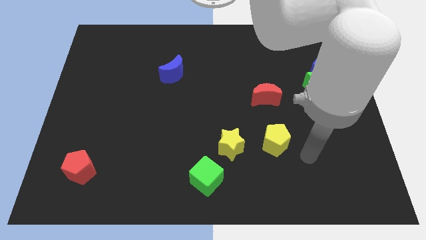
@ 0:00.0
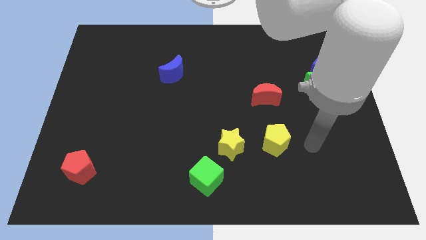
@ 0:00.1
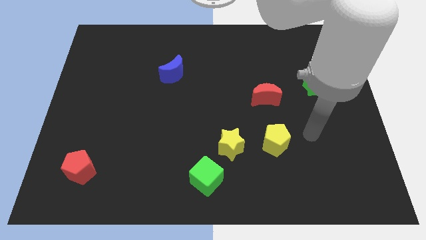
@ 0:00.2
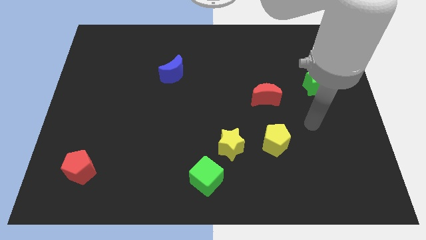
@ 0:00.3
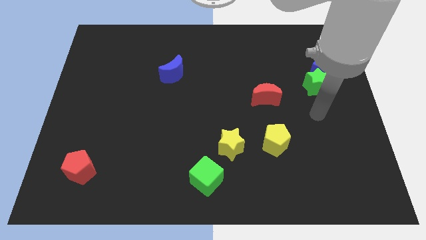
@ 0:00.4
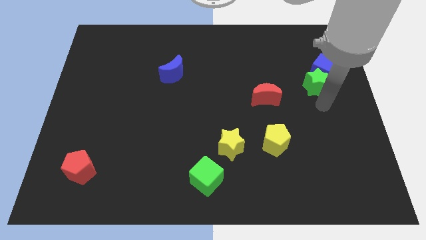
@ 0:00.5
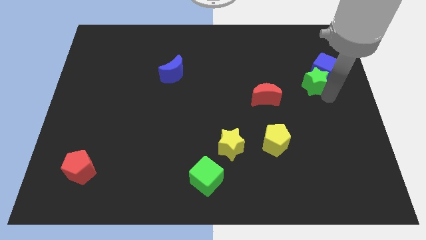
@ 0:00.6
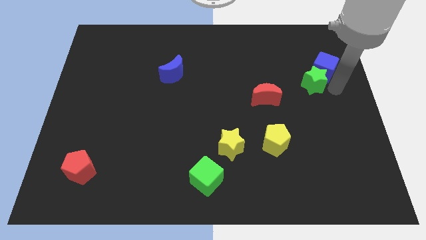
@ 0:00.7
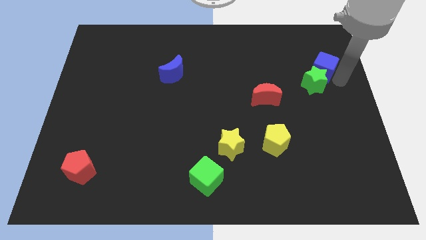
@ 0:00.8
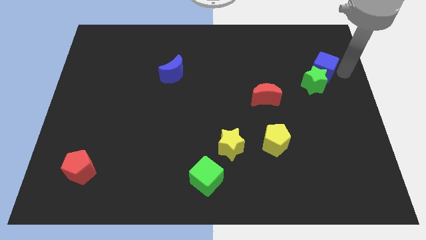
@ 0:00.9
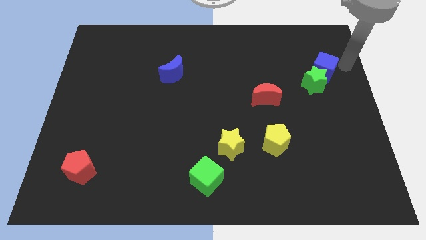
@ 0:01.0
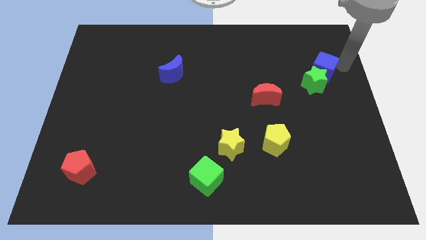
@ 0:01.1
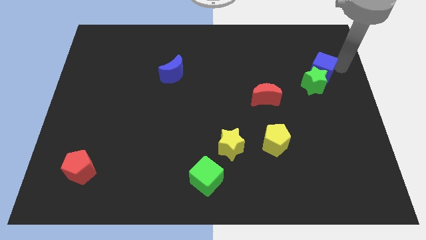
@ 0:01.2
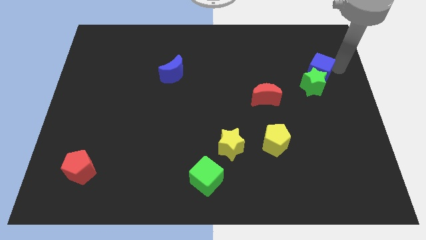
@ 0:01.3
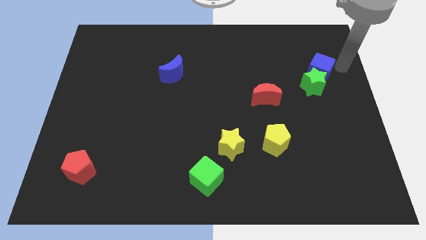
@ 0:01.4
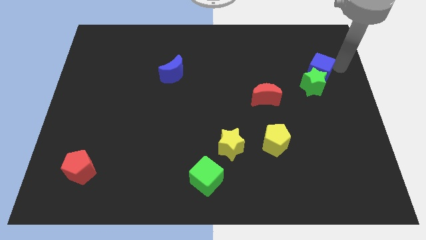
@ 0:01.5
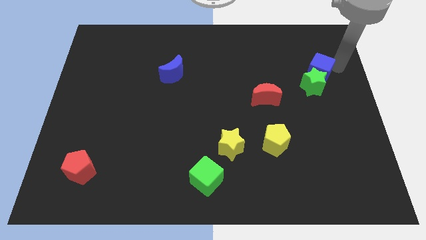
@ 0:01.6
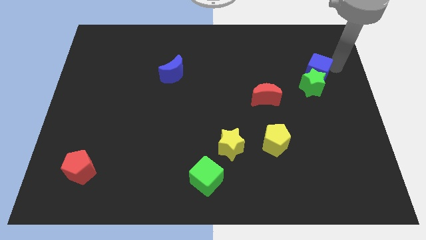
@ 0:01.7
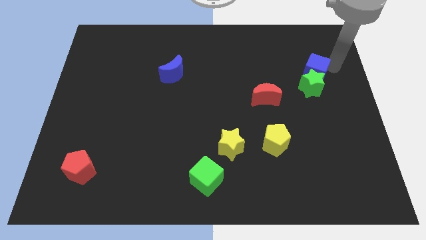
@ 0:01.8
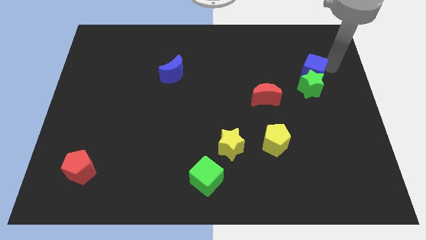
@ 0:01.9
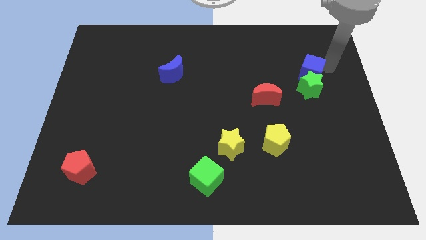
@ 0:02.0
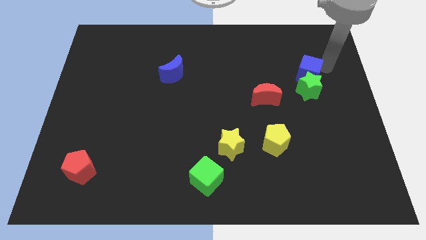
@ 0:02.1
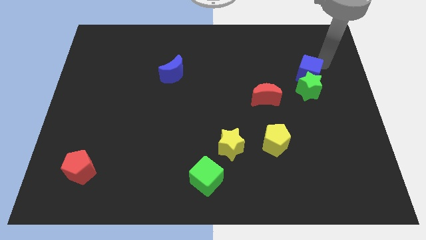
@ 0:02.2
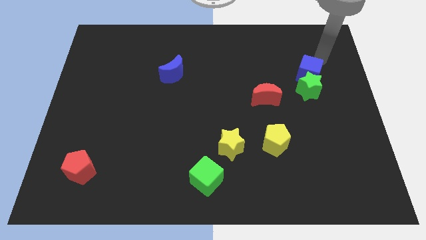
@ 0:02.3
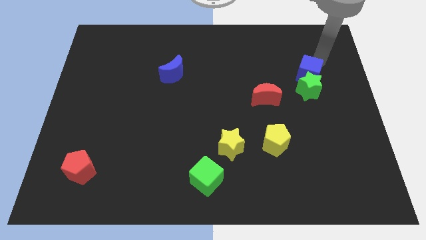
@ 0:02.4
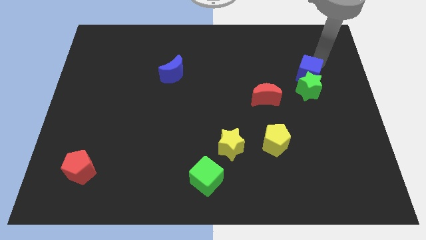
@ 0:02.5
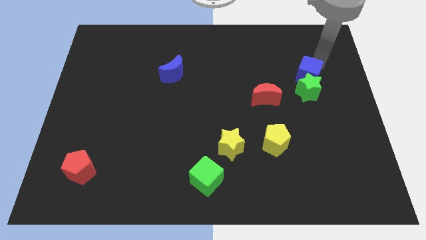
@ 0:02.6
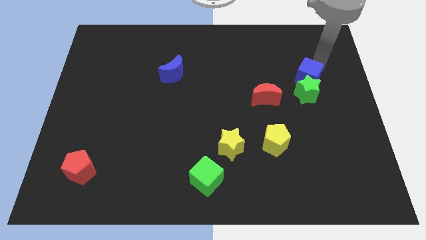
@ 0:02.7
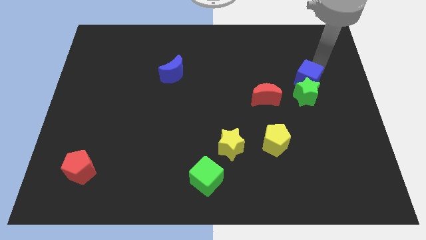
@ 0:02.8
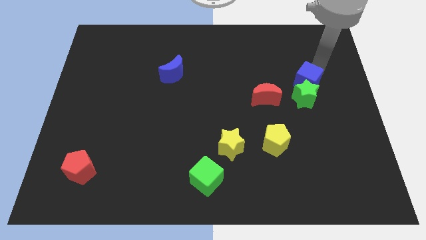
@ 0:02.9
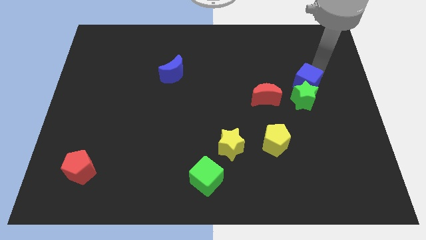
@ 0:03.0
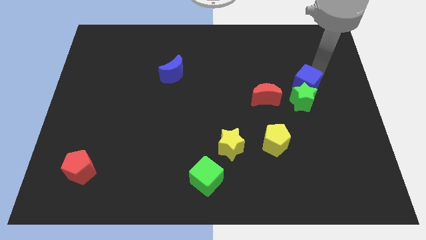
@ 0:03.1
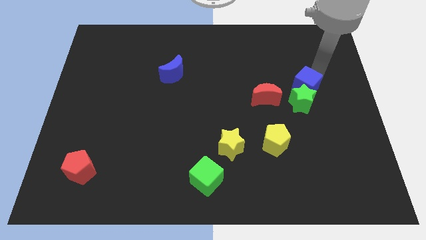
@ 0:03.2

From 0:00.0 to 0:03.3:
push the blue cube diagonally down and left slightly

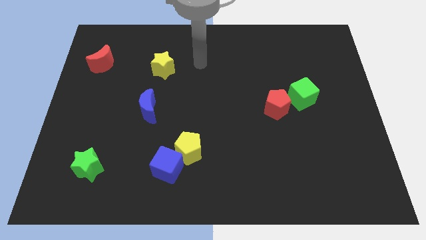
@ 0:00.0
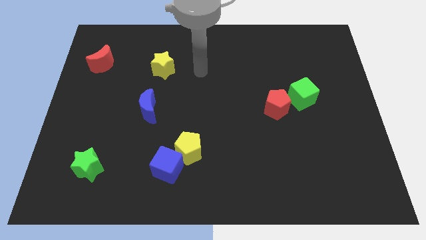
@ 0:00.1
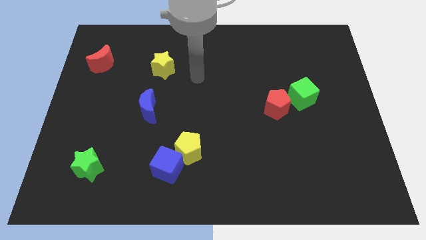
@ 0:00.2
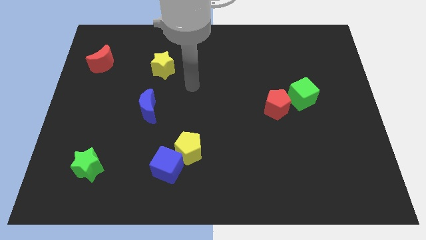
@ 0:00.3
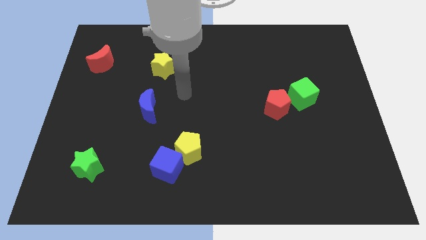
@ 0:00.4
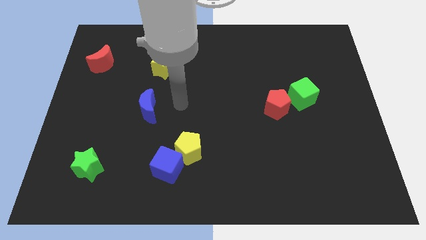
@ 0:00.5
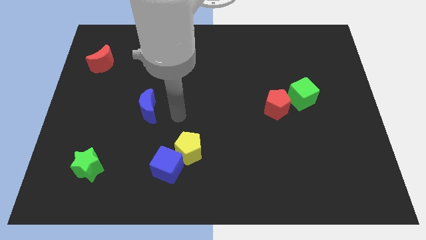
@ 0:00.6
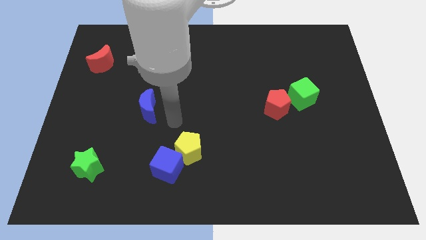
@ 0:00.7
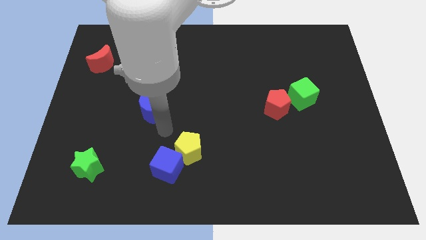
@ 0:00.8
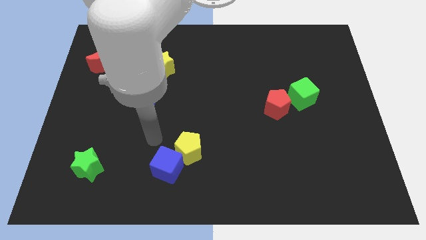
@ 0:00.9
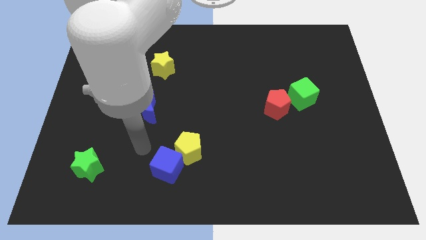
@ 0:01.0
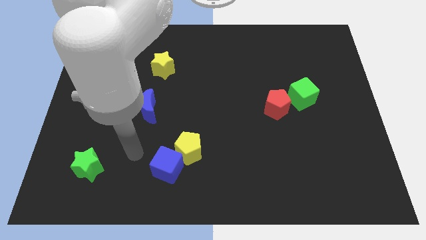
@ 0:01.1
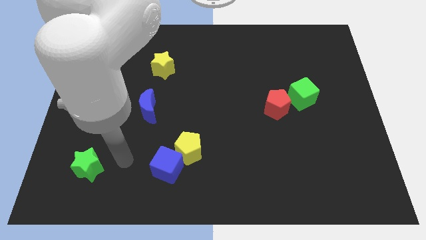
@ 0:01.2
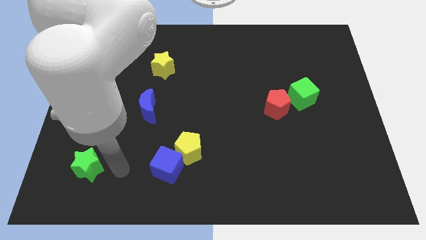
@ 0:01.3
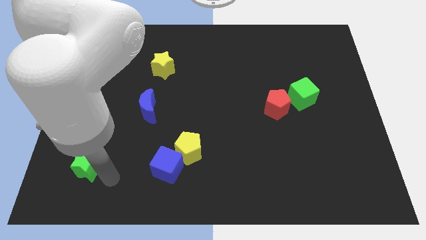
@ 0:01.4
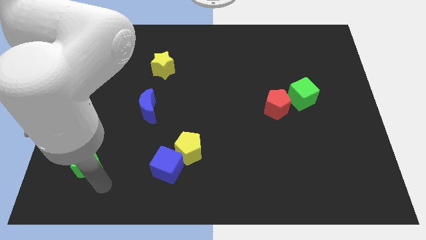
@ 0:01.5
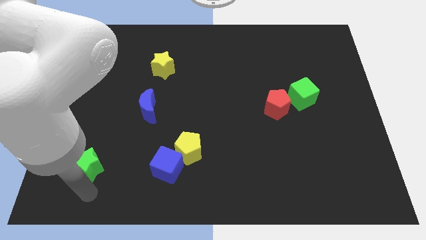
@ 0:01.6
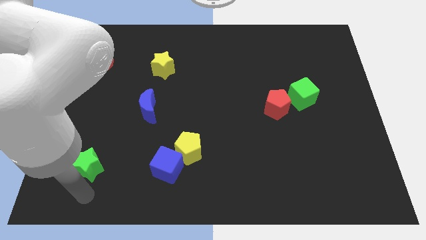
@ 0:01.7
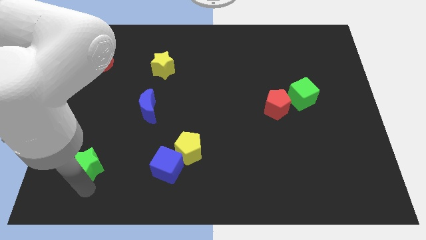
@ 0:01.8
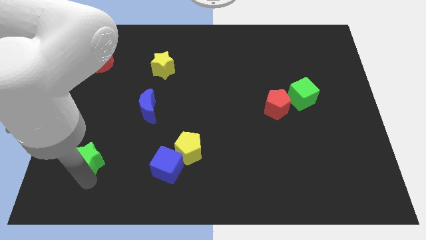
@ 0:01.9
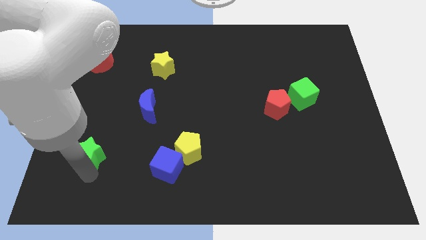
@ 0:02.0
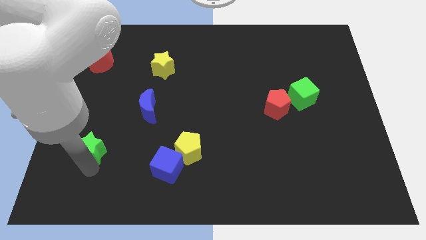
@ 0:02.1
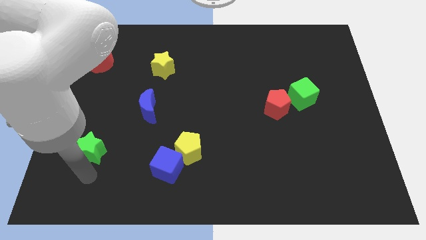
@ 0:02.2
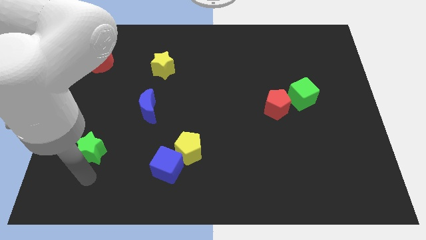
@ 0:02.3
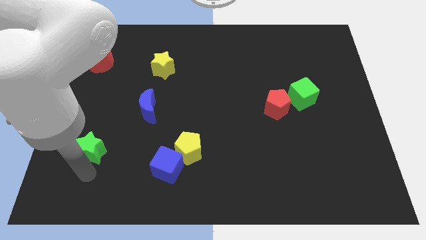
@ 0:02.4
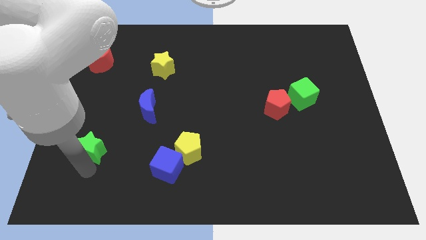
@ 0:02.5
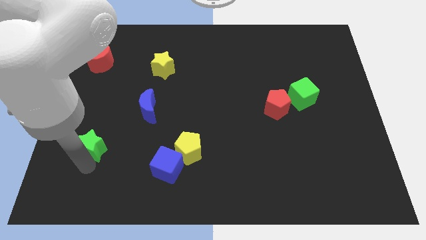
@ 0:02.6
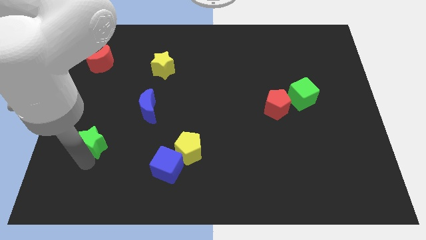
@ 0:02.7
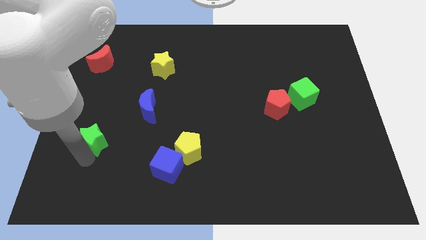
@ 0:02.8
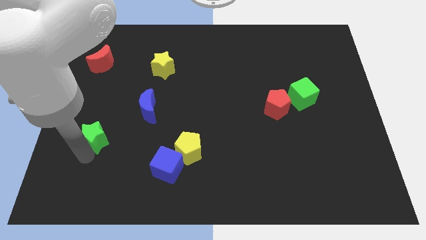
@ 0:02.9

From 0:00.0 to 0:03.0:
push the green star up a little bit

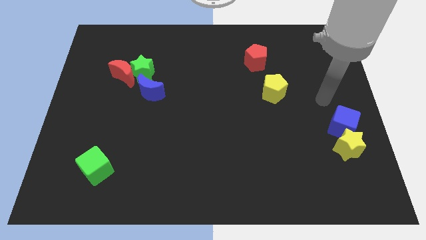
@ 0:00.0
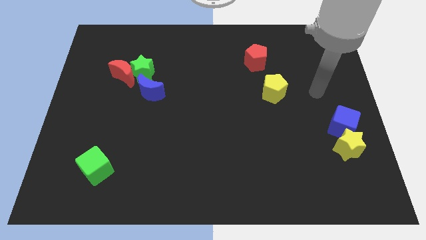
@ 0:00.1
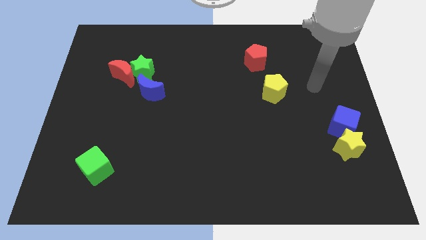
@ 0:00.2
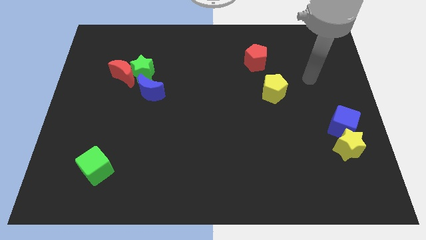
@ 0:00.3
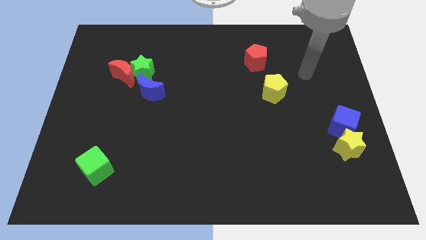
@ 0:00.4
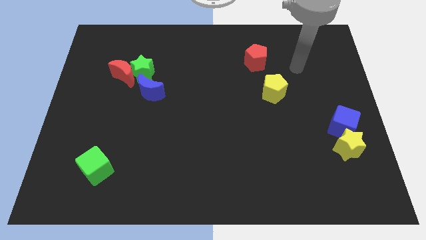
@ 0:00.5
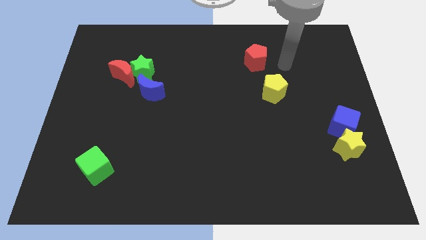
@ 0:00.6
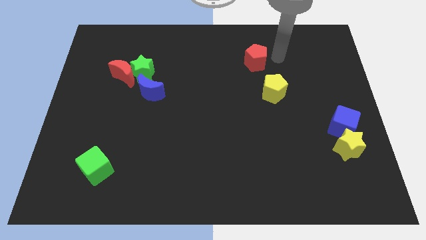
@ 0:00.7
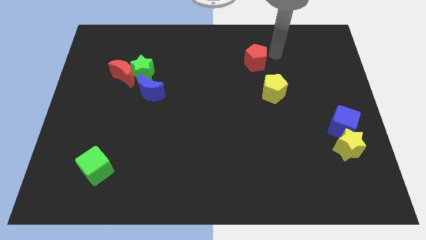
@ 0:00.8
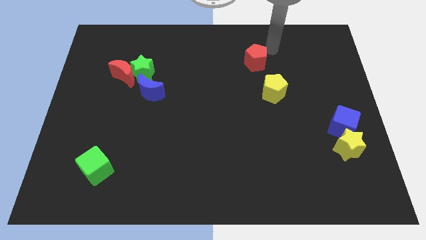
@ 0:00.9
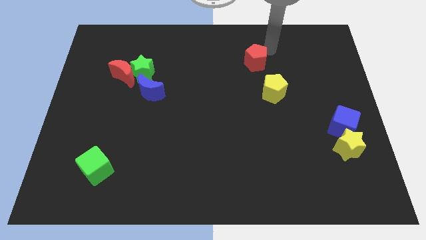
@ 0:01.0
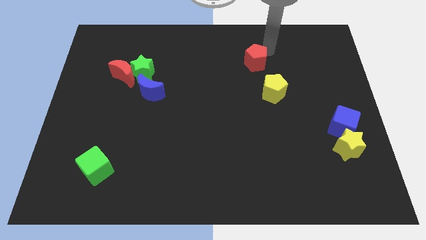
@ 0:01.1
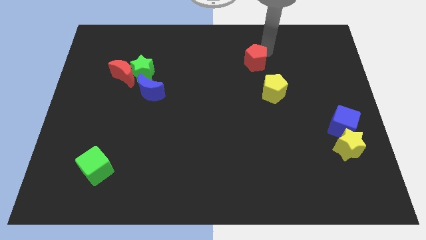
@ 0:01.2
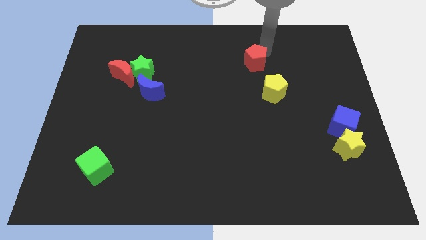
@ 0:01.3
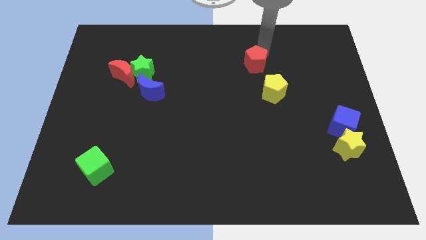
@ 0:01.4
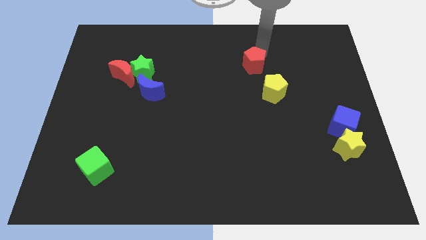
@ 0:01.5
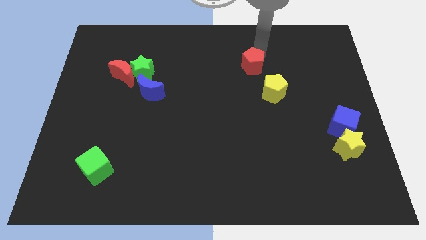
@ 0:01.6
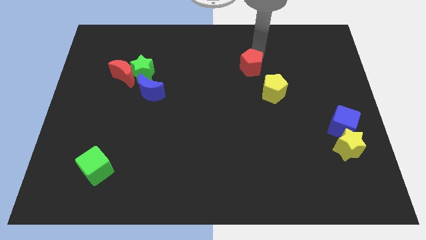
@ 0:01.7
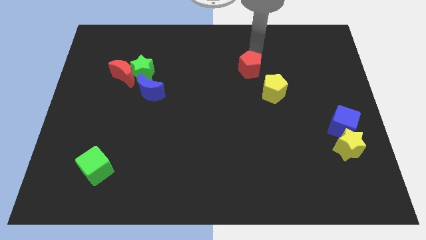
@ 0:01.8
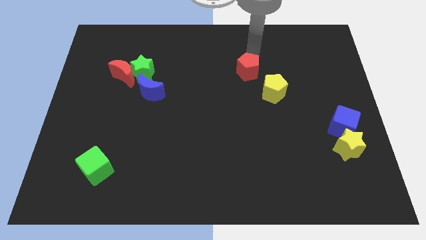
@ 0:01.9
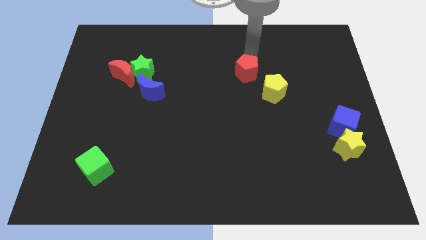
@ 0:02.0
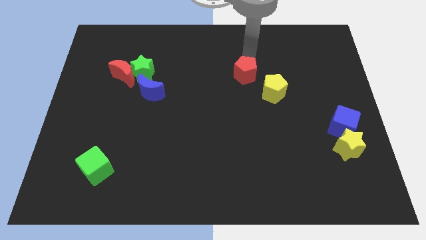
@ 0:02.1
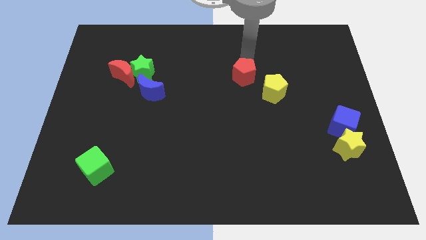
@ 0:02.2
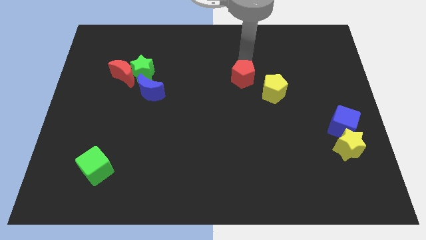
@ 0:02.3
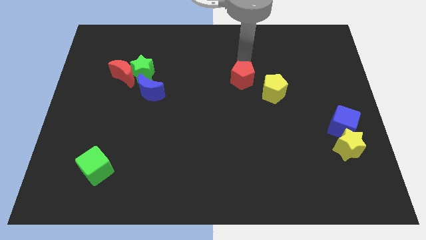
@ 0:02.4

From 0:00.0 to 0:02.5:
slide the red pentagon a little down and to the left diagonally
